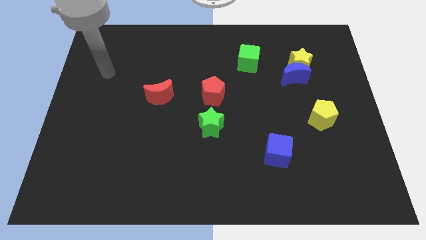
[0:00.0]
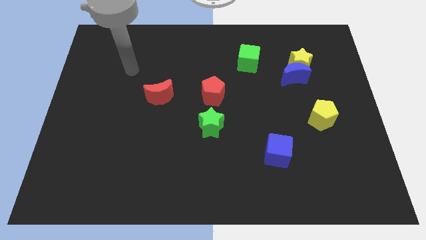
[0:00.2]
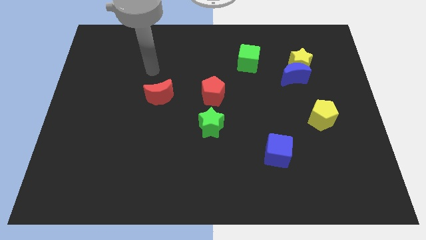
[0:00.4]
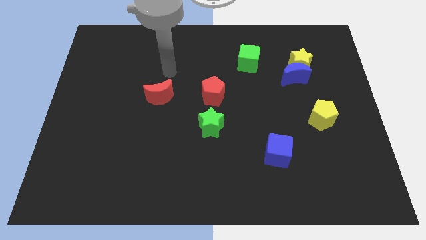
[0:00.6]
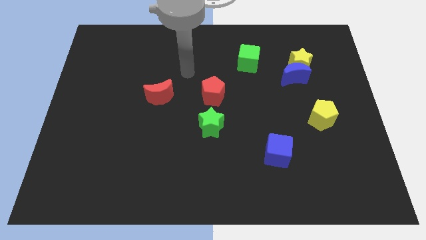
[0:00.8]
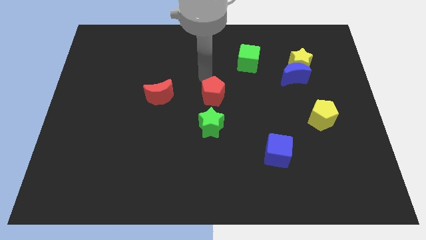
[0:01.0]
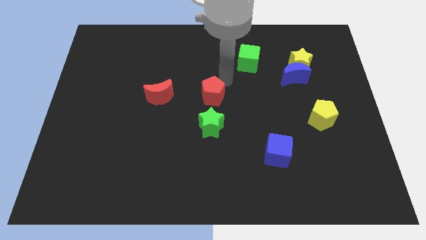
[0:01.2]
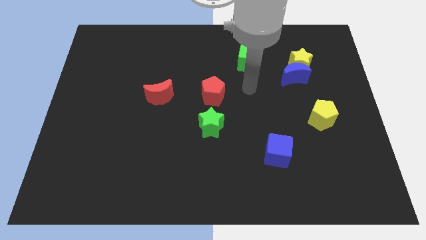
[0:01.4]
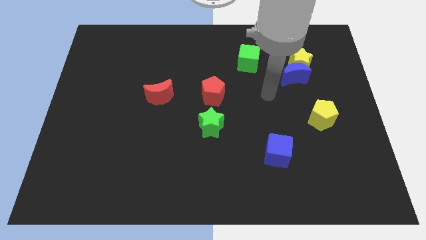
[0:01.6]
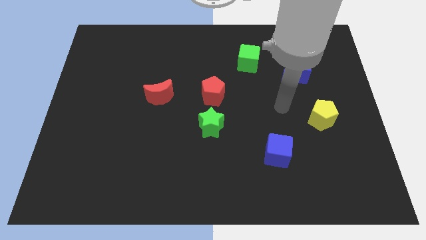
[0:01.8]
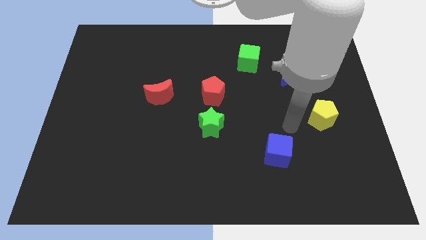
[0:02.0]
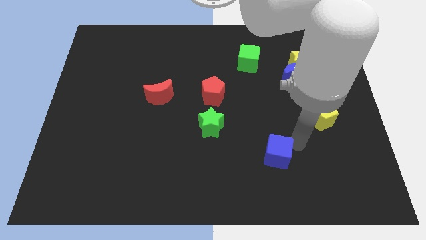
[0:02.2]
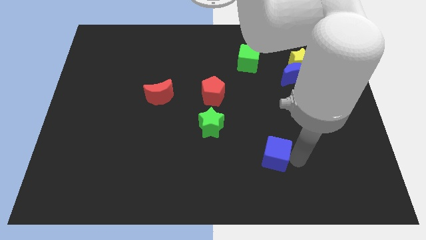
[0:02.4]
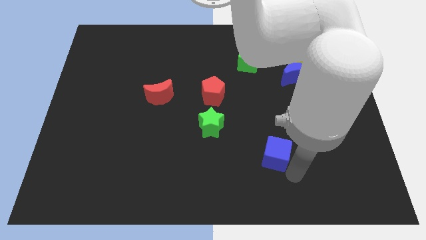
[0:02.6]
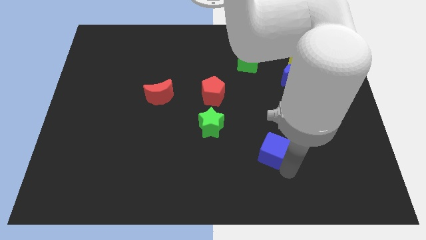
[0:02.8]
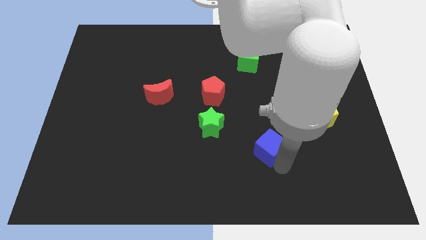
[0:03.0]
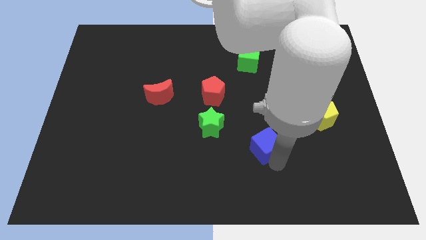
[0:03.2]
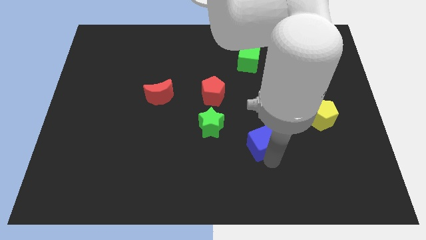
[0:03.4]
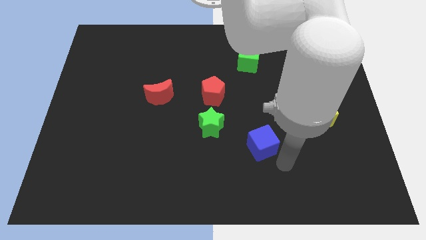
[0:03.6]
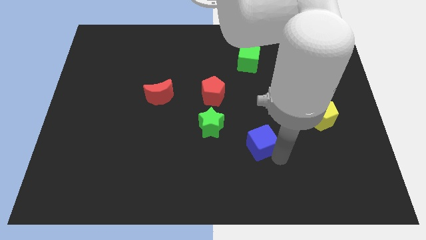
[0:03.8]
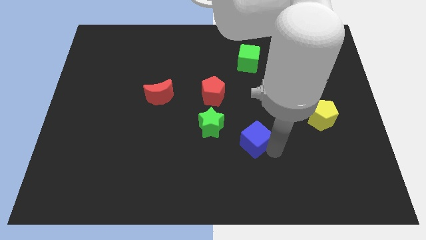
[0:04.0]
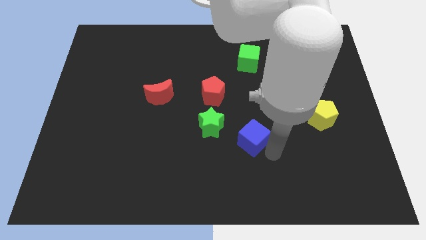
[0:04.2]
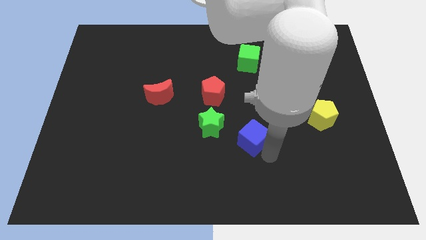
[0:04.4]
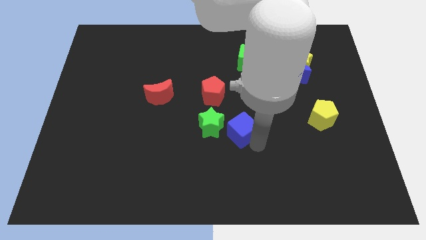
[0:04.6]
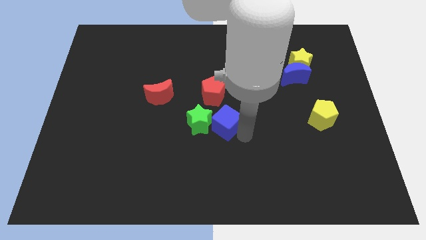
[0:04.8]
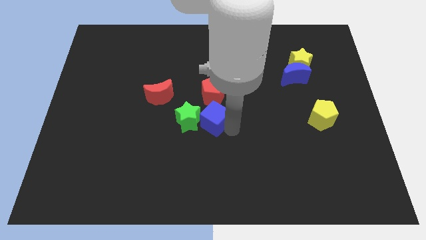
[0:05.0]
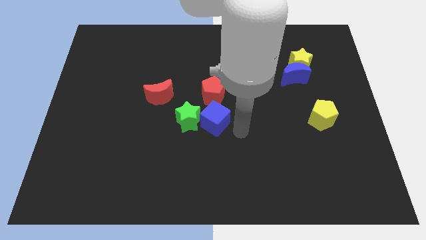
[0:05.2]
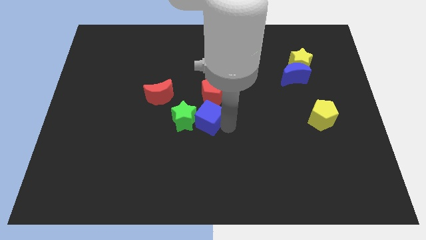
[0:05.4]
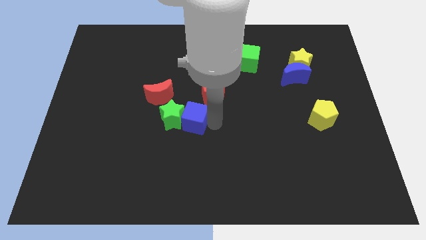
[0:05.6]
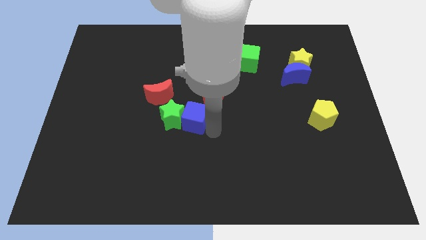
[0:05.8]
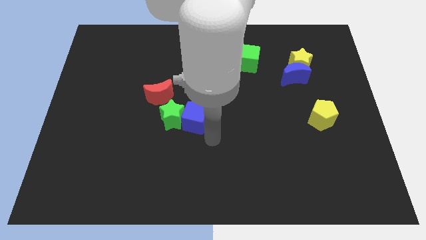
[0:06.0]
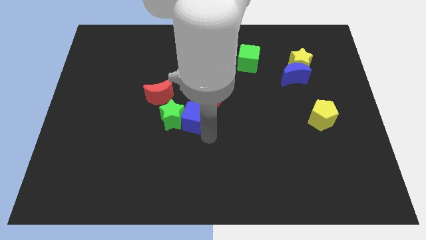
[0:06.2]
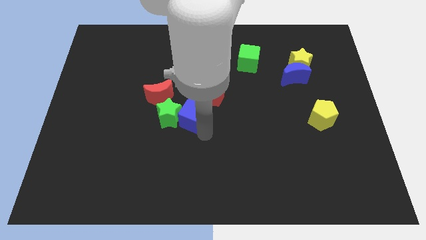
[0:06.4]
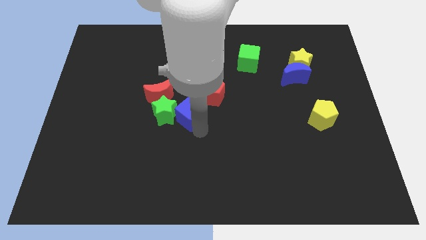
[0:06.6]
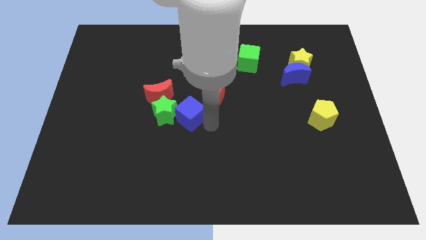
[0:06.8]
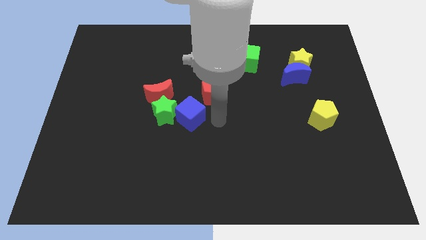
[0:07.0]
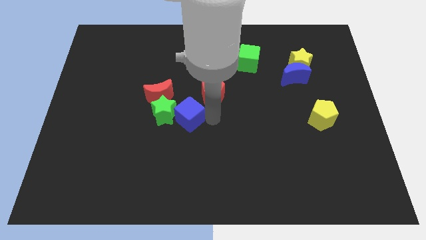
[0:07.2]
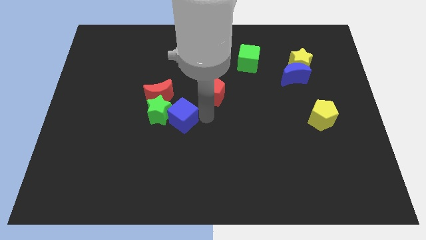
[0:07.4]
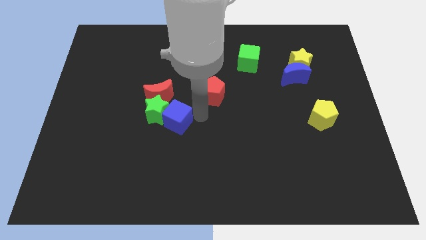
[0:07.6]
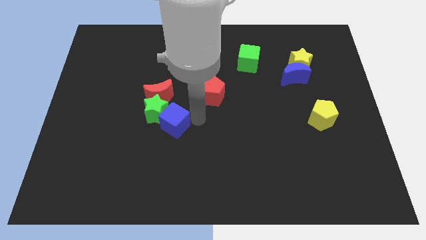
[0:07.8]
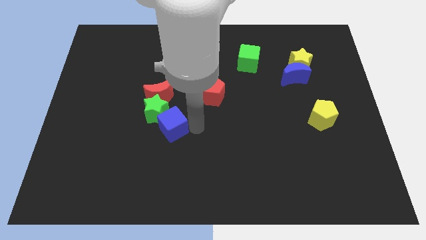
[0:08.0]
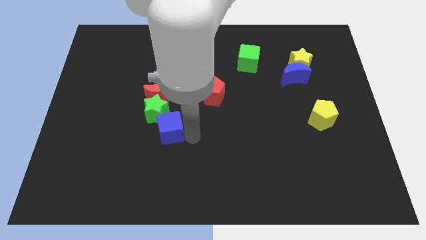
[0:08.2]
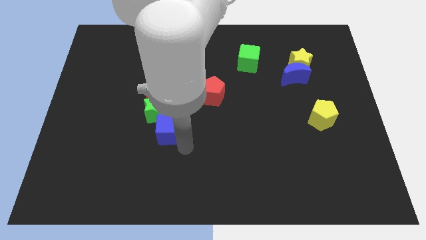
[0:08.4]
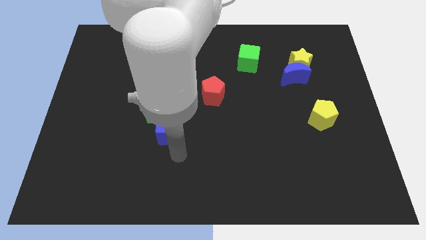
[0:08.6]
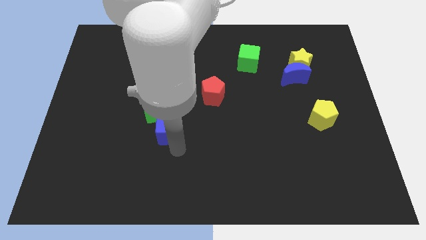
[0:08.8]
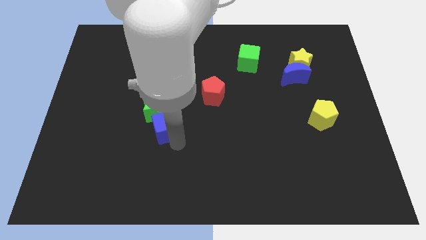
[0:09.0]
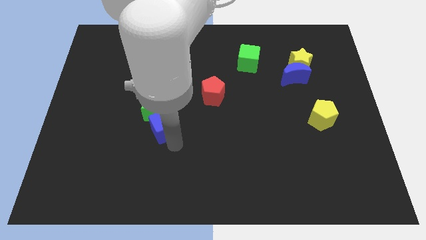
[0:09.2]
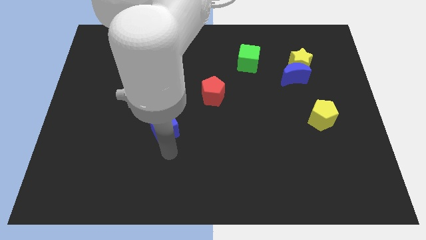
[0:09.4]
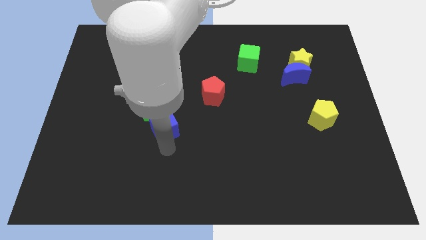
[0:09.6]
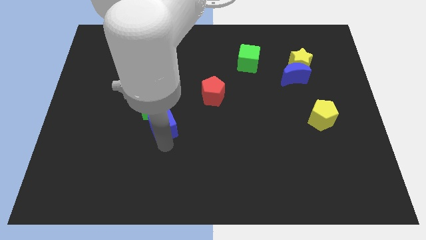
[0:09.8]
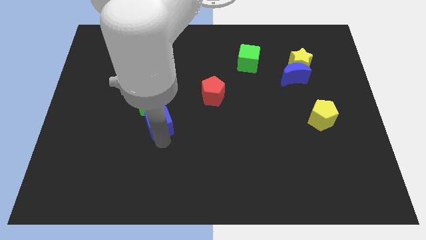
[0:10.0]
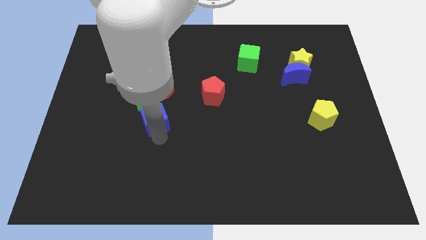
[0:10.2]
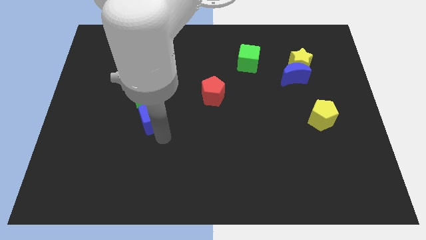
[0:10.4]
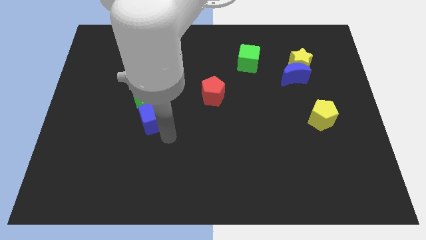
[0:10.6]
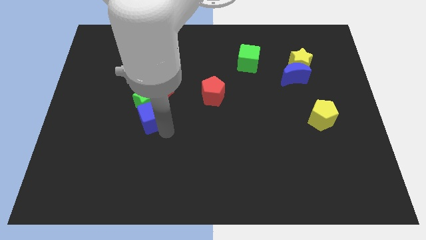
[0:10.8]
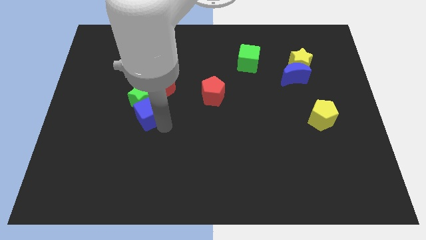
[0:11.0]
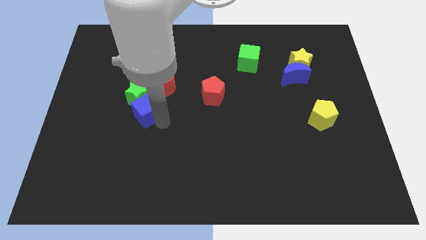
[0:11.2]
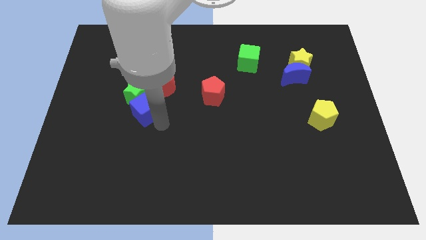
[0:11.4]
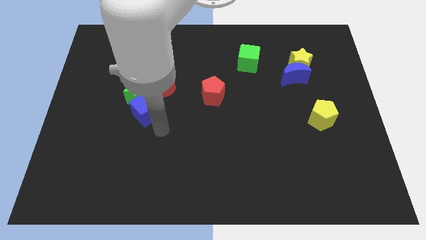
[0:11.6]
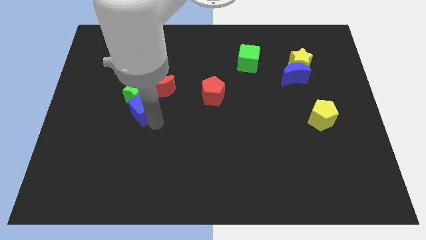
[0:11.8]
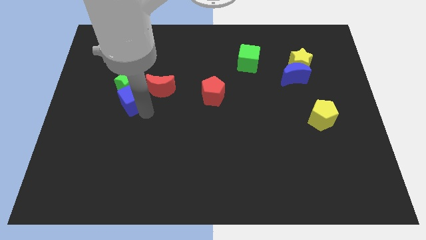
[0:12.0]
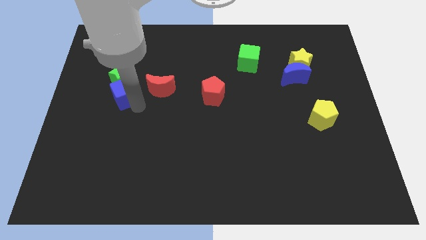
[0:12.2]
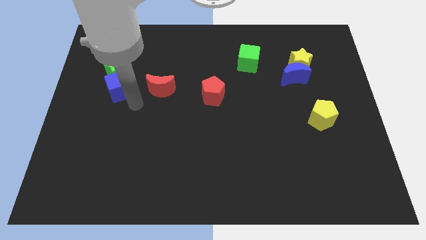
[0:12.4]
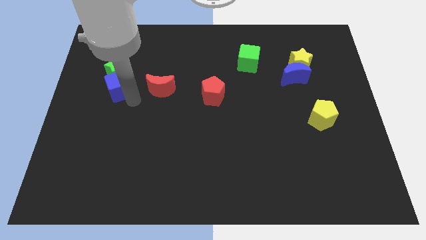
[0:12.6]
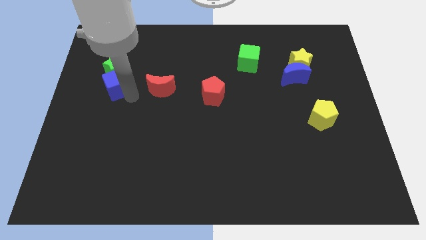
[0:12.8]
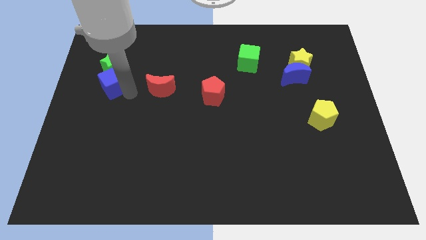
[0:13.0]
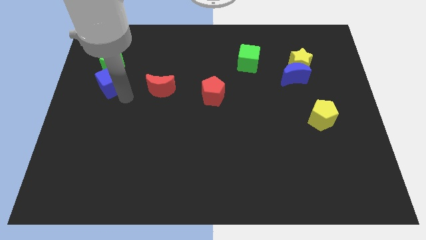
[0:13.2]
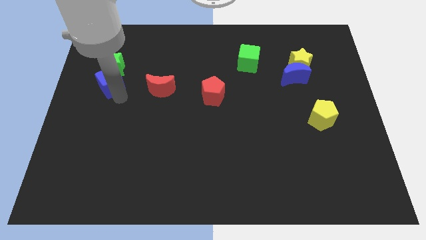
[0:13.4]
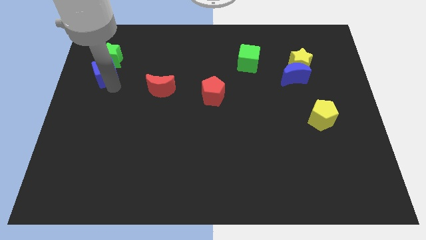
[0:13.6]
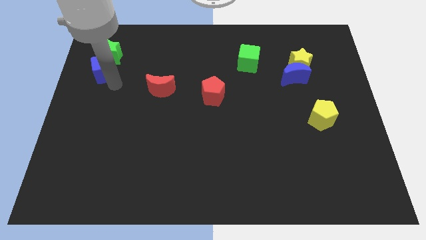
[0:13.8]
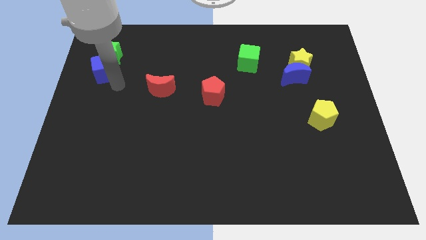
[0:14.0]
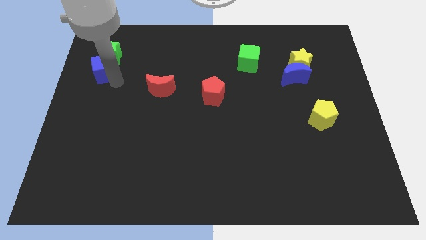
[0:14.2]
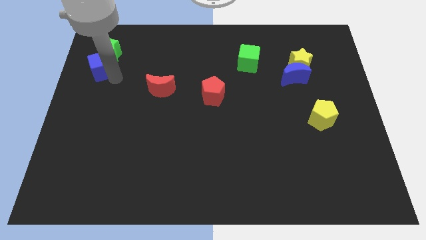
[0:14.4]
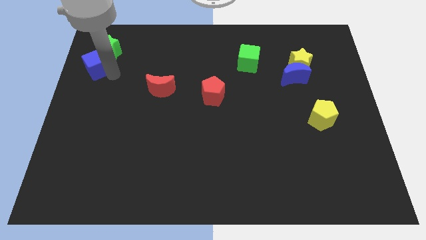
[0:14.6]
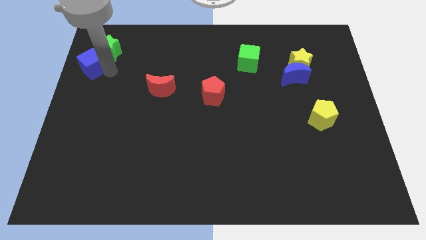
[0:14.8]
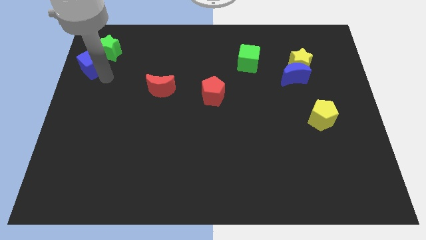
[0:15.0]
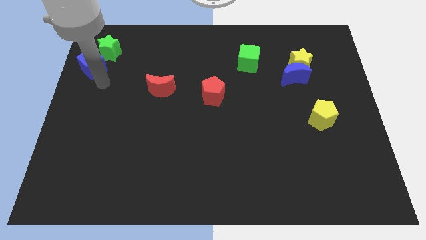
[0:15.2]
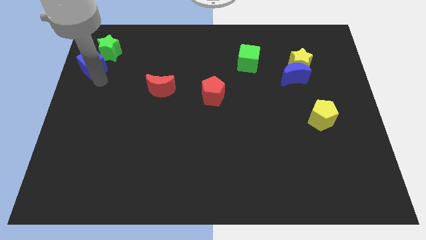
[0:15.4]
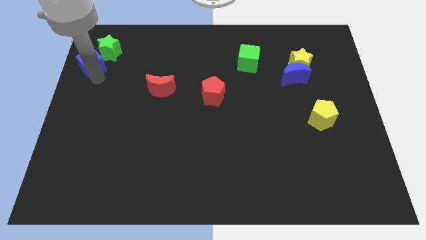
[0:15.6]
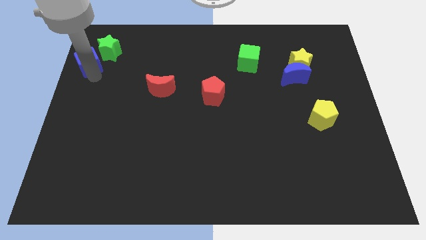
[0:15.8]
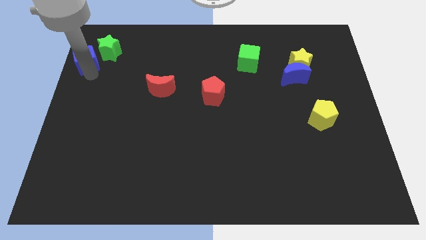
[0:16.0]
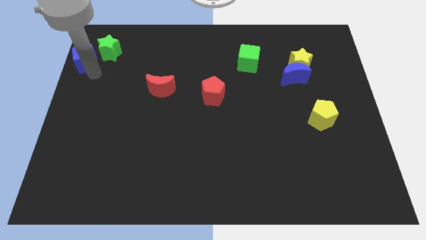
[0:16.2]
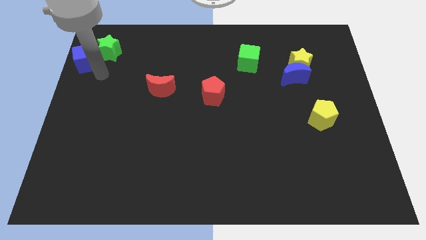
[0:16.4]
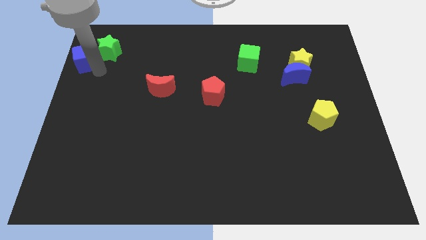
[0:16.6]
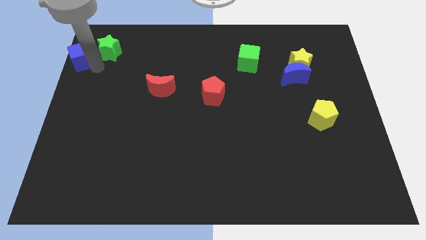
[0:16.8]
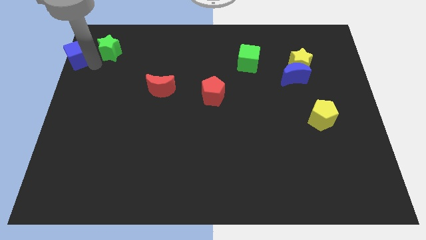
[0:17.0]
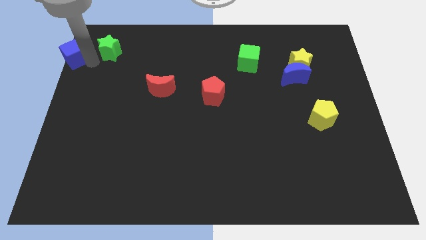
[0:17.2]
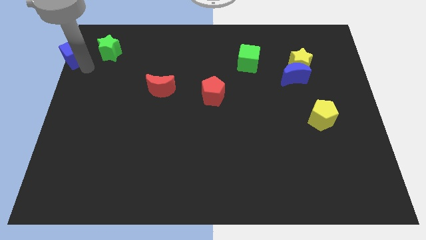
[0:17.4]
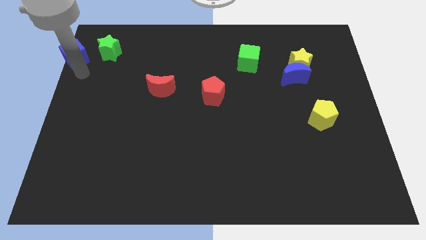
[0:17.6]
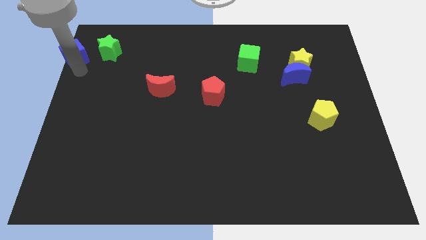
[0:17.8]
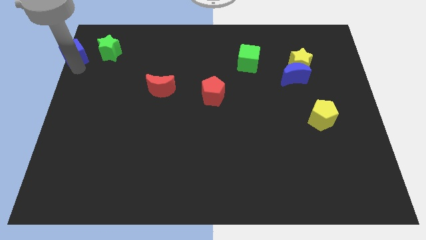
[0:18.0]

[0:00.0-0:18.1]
push the blue cube to the top left corner
